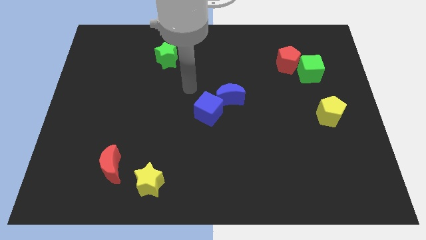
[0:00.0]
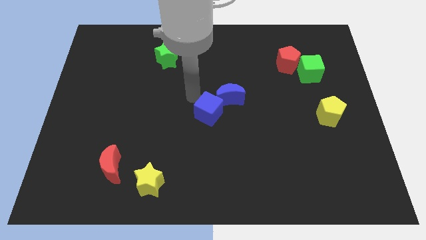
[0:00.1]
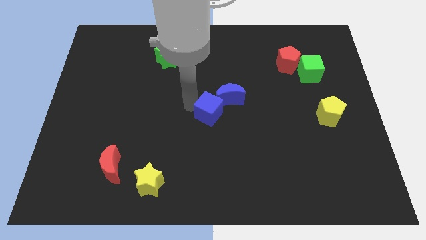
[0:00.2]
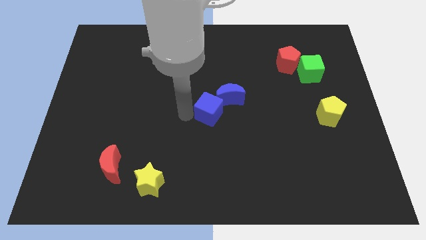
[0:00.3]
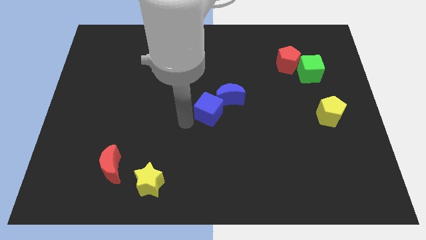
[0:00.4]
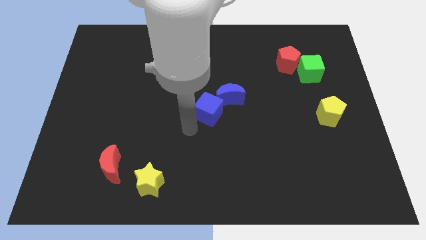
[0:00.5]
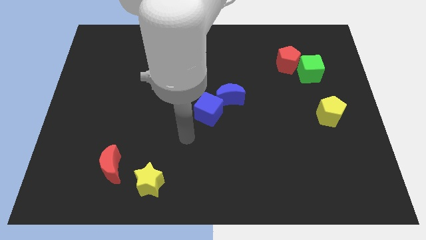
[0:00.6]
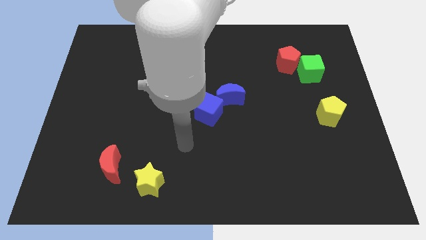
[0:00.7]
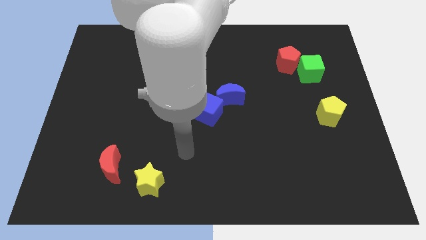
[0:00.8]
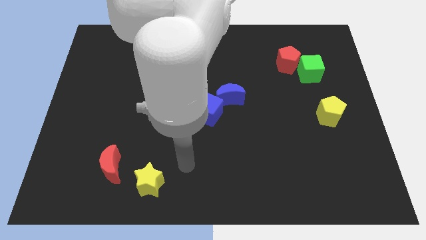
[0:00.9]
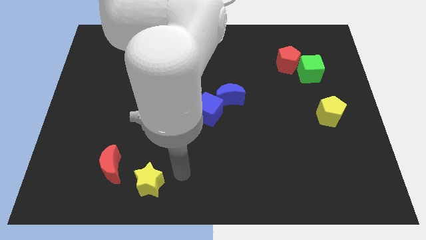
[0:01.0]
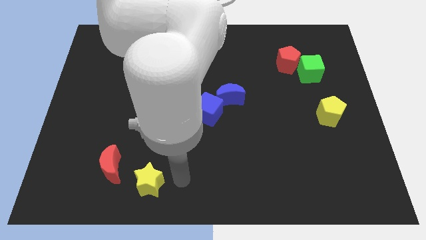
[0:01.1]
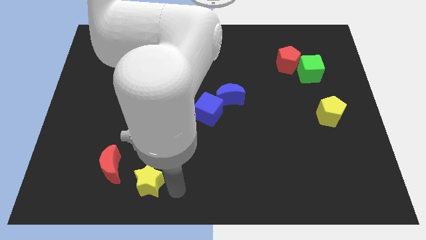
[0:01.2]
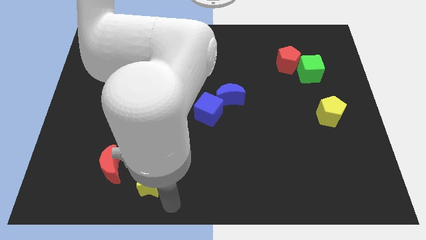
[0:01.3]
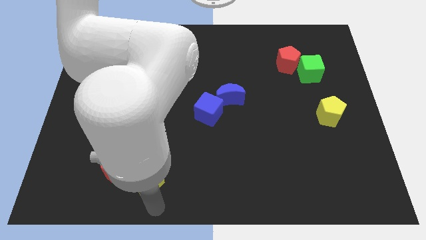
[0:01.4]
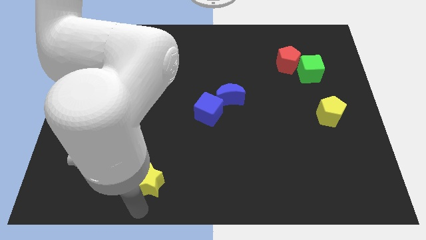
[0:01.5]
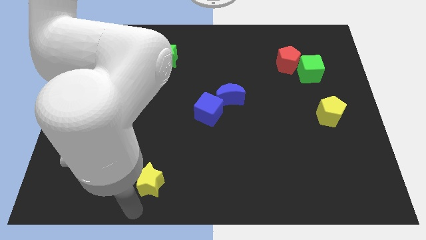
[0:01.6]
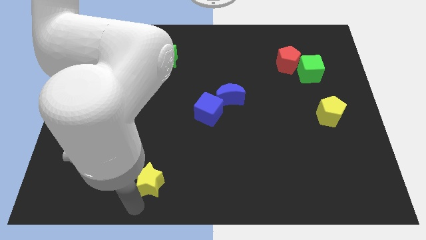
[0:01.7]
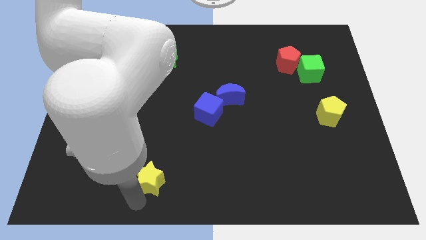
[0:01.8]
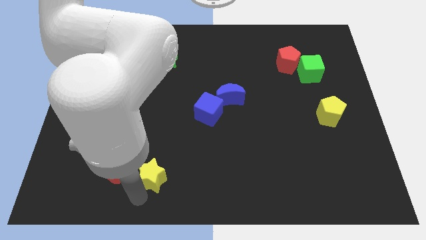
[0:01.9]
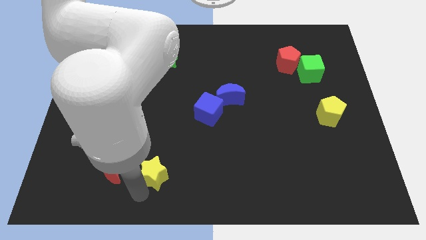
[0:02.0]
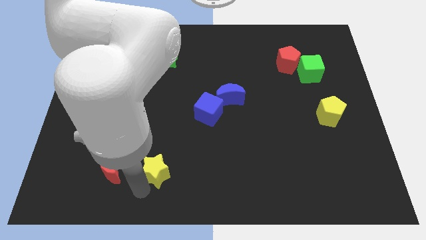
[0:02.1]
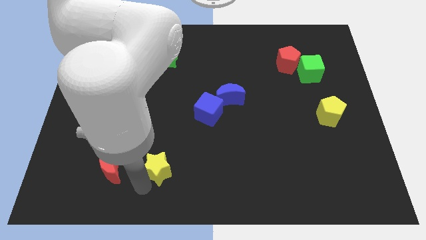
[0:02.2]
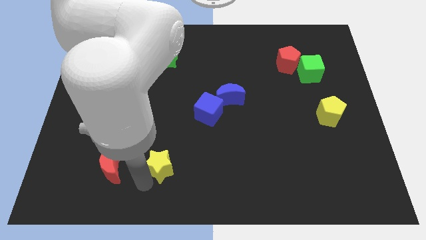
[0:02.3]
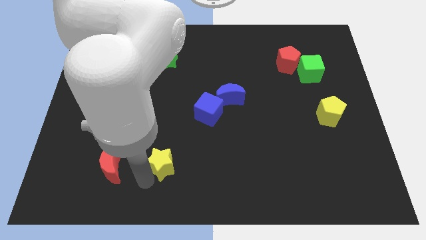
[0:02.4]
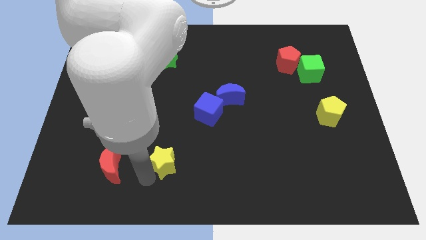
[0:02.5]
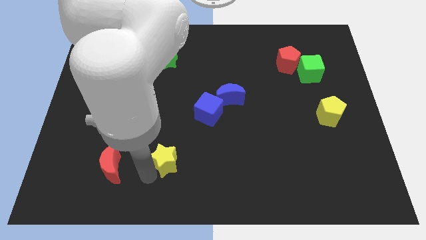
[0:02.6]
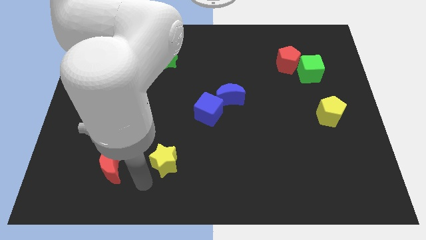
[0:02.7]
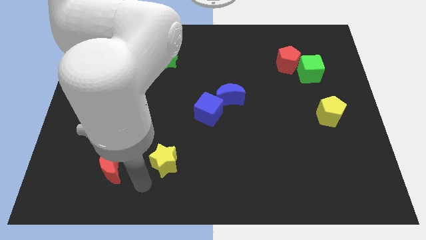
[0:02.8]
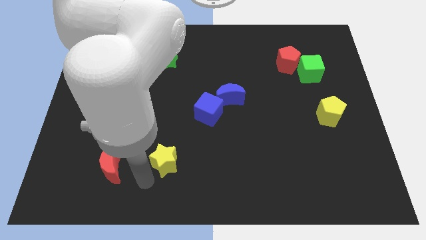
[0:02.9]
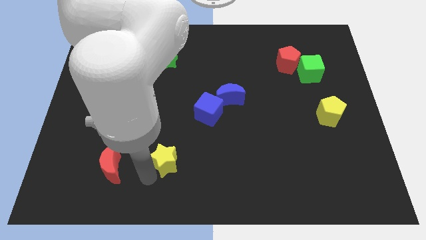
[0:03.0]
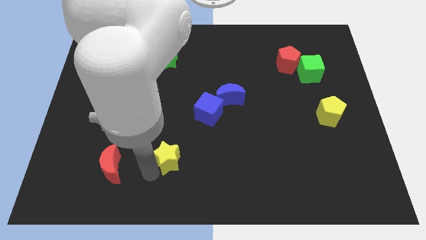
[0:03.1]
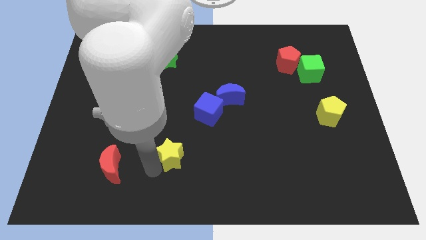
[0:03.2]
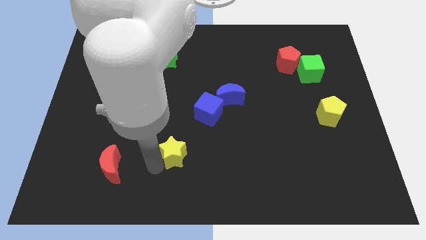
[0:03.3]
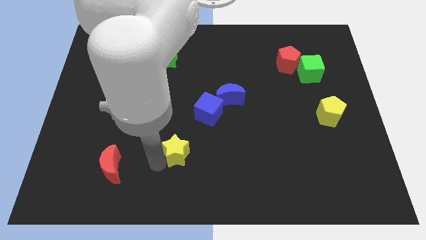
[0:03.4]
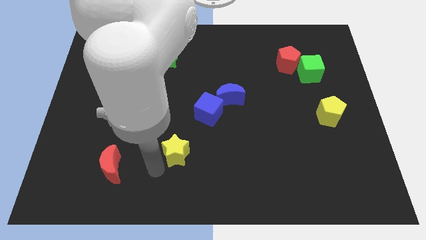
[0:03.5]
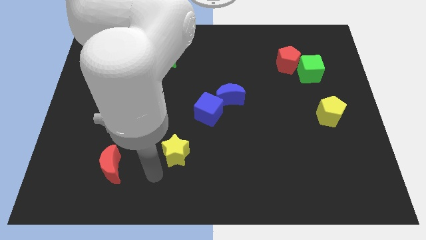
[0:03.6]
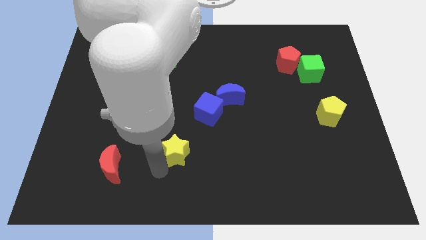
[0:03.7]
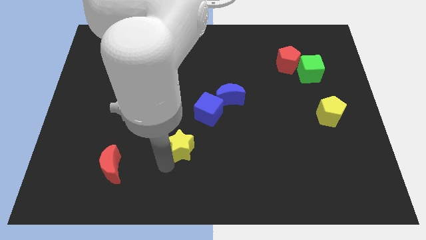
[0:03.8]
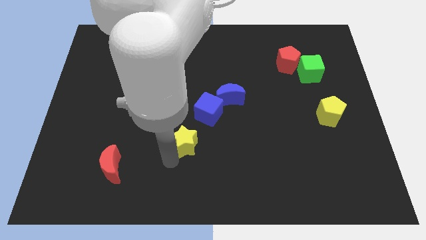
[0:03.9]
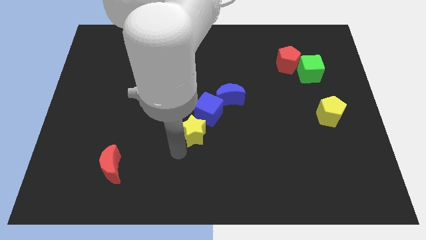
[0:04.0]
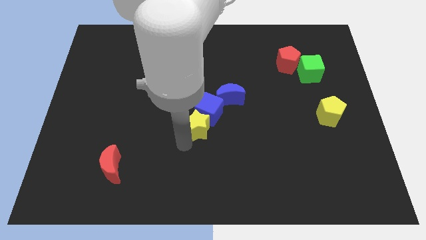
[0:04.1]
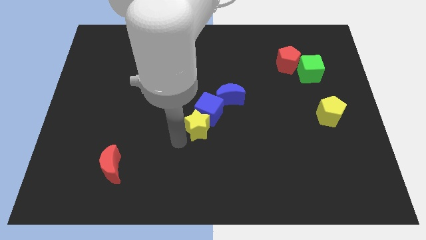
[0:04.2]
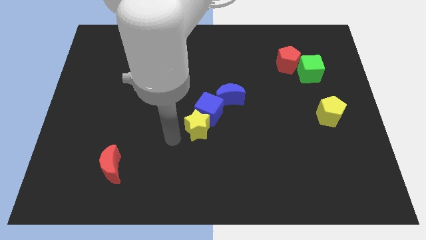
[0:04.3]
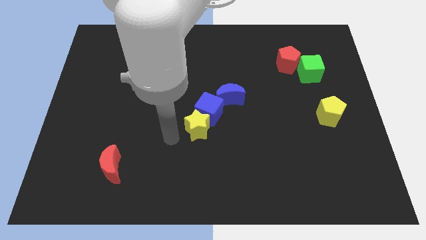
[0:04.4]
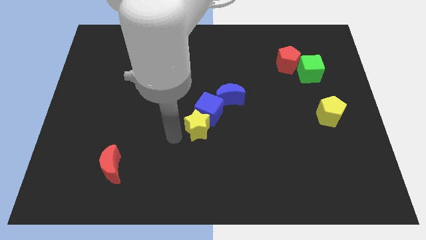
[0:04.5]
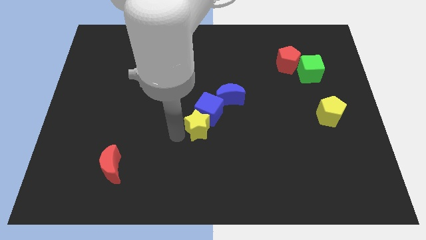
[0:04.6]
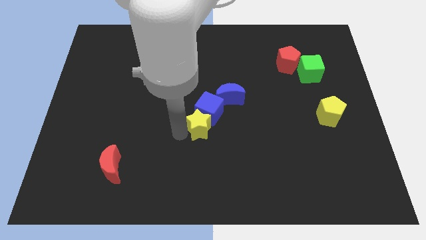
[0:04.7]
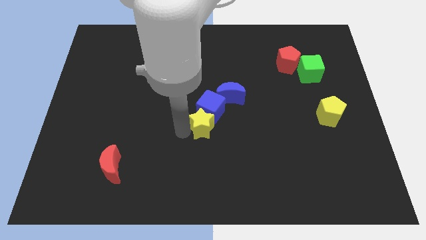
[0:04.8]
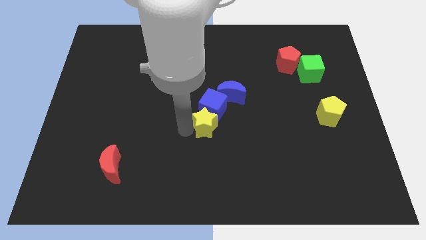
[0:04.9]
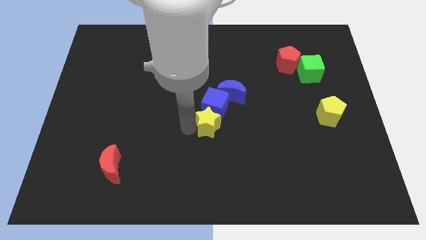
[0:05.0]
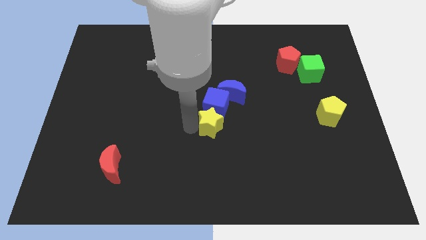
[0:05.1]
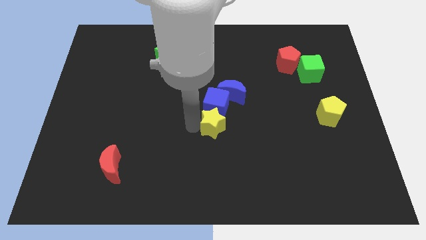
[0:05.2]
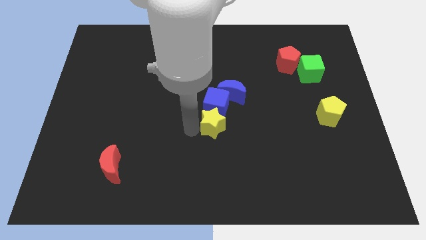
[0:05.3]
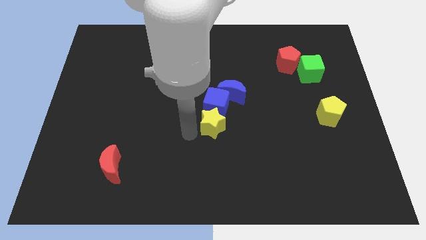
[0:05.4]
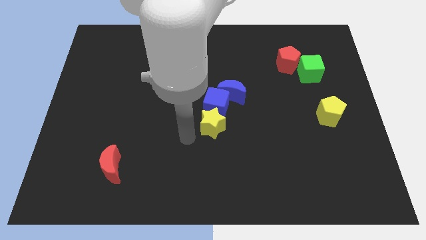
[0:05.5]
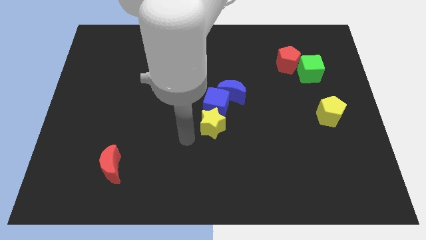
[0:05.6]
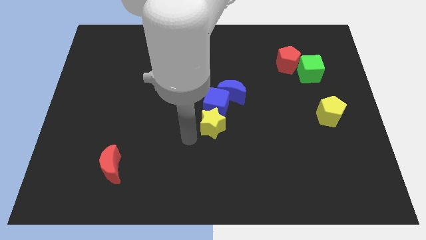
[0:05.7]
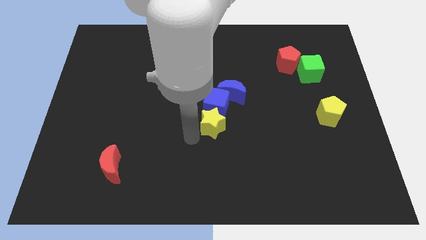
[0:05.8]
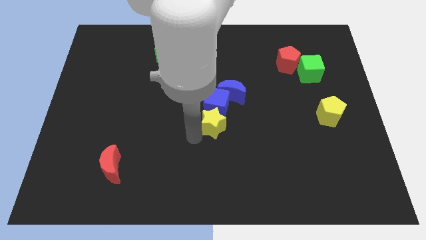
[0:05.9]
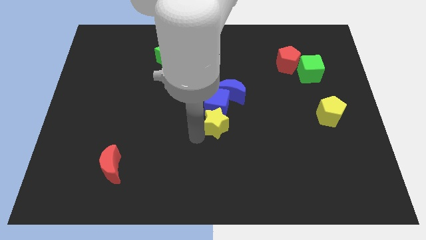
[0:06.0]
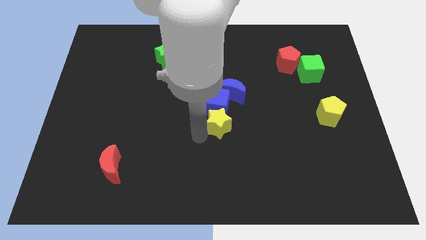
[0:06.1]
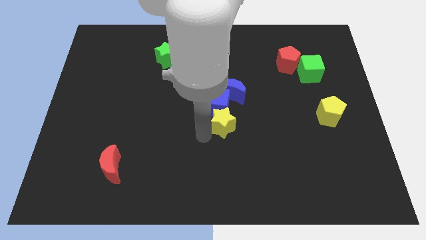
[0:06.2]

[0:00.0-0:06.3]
slide the yellow star diagonally upwards and right

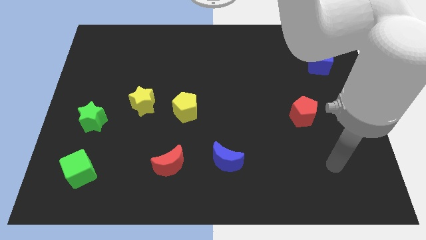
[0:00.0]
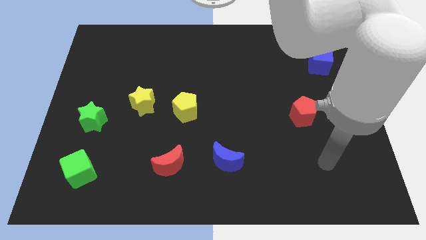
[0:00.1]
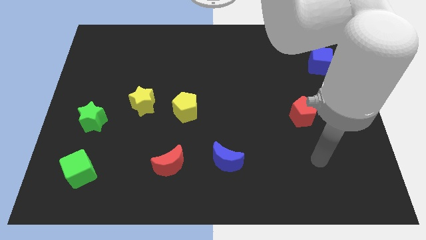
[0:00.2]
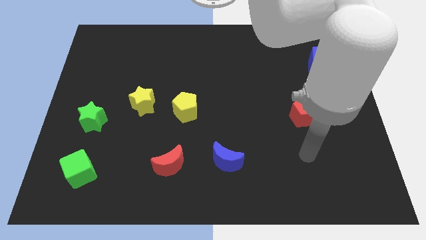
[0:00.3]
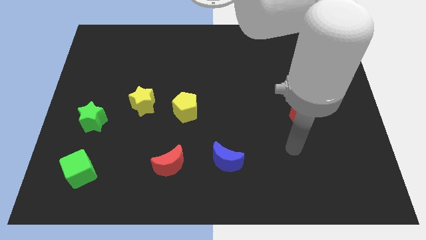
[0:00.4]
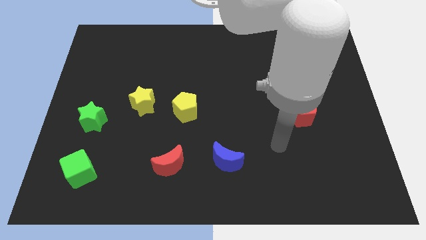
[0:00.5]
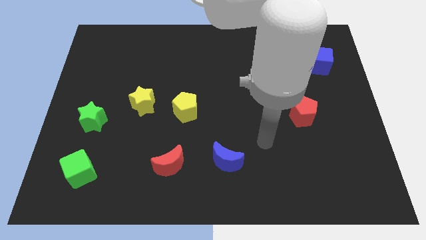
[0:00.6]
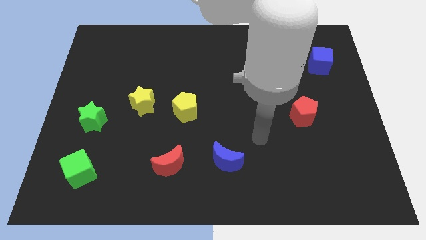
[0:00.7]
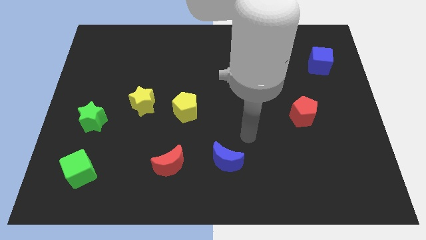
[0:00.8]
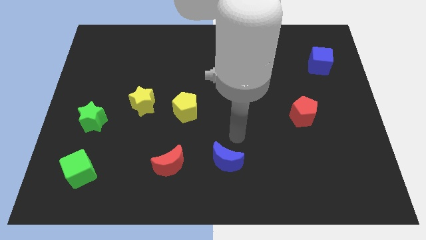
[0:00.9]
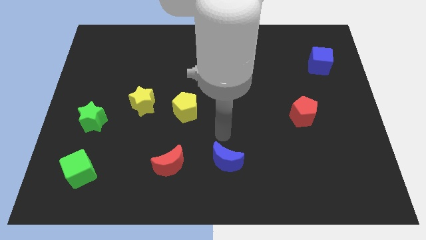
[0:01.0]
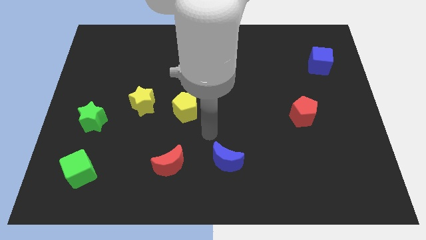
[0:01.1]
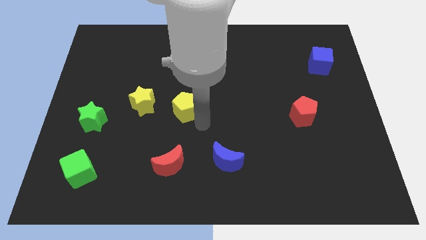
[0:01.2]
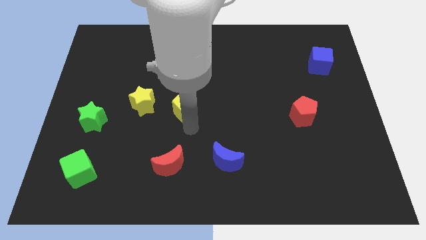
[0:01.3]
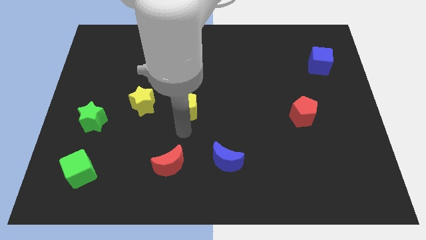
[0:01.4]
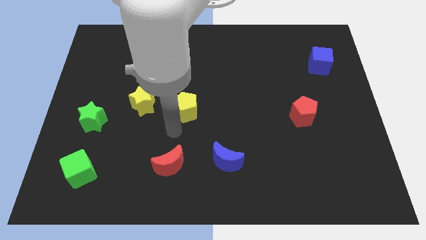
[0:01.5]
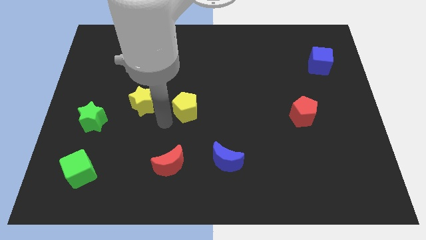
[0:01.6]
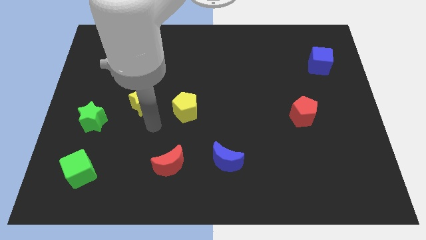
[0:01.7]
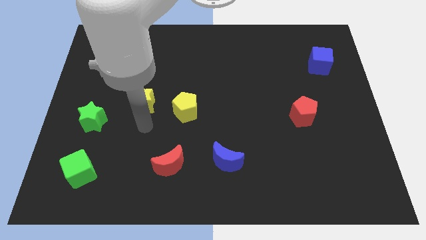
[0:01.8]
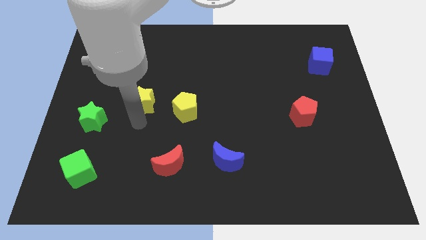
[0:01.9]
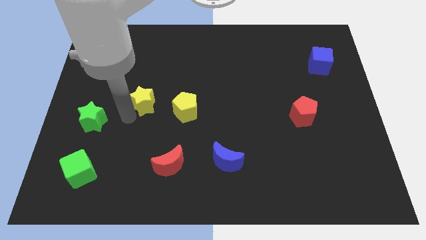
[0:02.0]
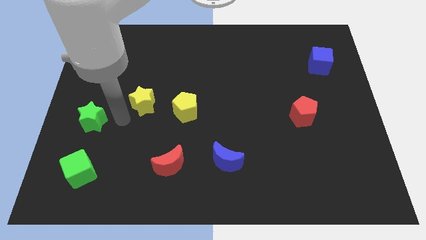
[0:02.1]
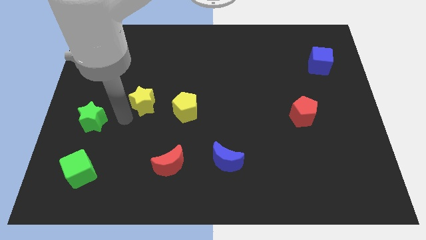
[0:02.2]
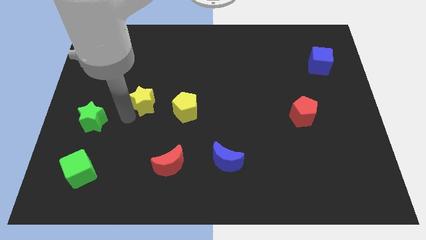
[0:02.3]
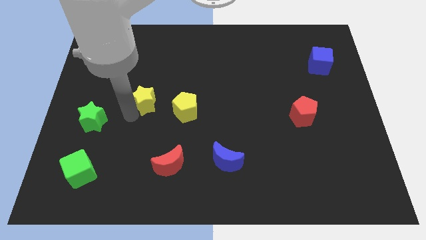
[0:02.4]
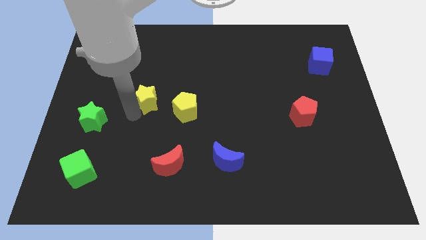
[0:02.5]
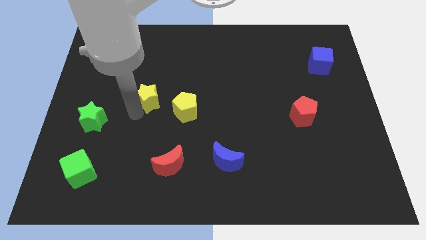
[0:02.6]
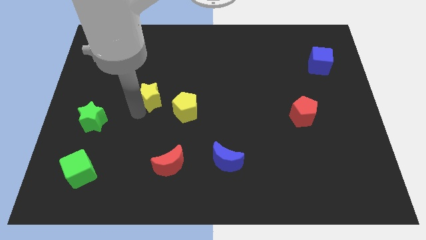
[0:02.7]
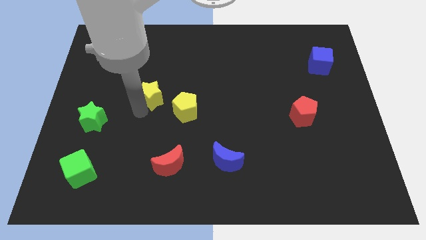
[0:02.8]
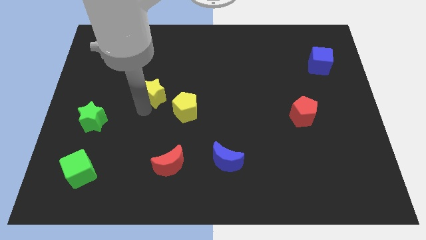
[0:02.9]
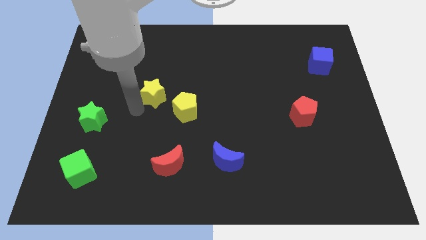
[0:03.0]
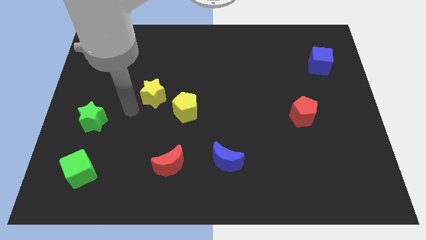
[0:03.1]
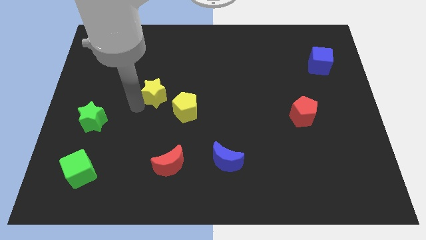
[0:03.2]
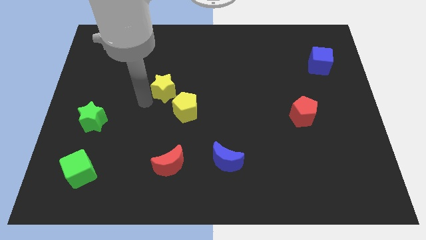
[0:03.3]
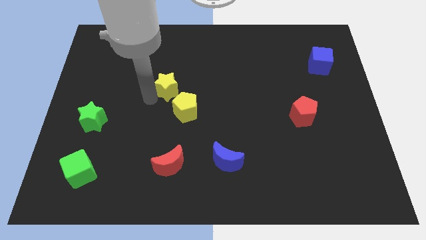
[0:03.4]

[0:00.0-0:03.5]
slightly slide the yellow star up and then right
